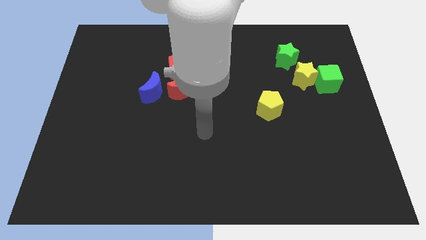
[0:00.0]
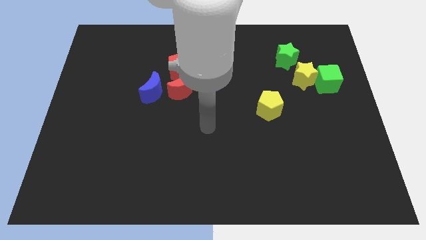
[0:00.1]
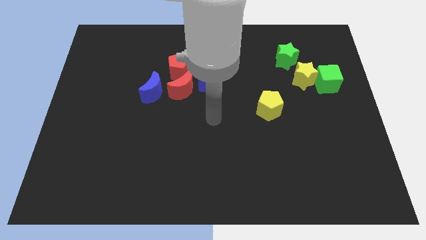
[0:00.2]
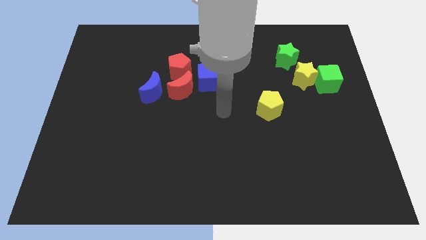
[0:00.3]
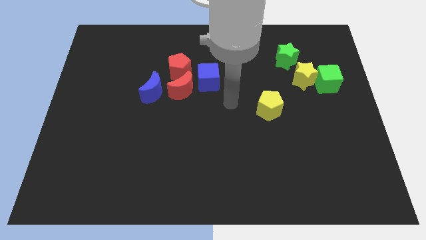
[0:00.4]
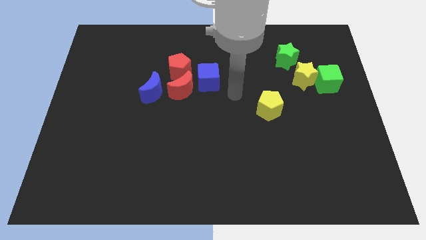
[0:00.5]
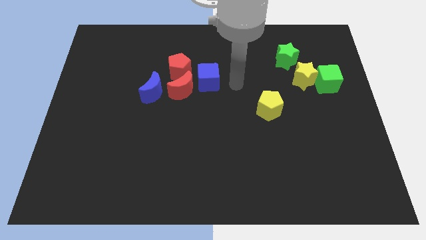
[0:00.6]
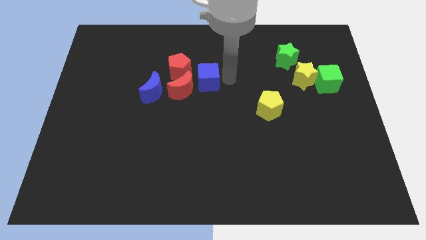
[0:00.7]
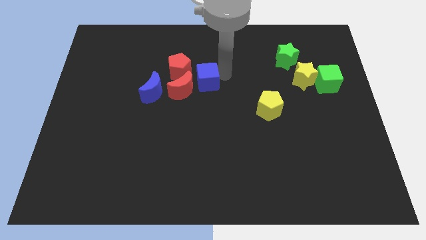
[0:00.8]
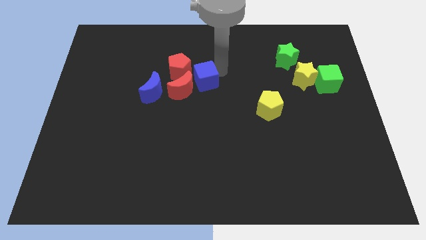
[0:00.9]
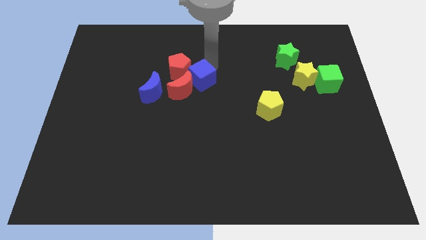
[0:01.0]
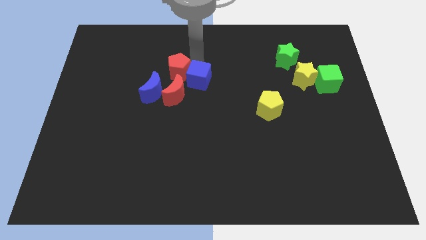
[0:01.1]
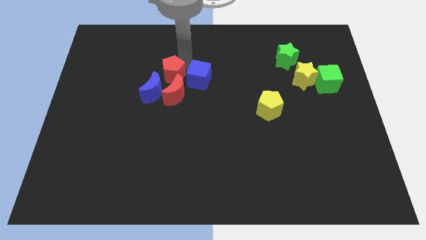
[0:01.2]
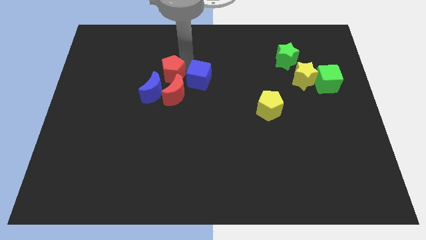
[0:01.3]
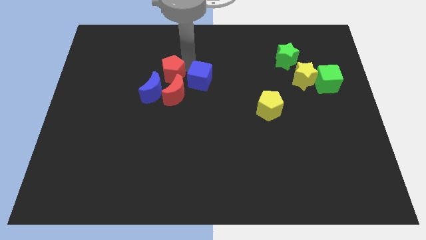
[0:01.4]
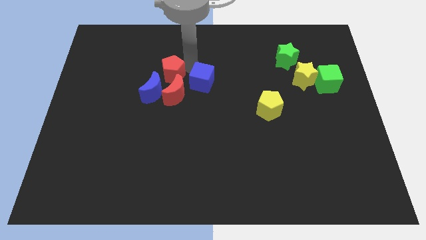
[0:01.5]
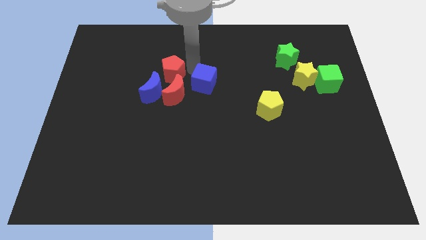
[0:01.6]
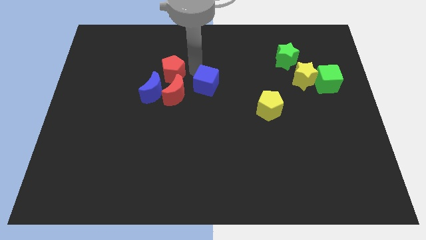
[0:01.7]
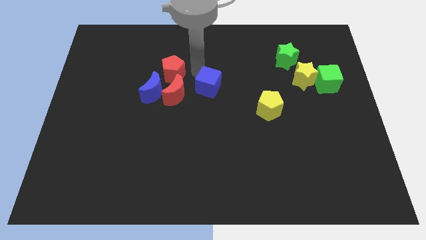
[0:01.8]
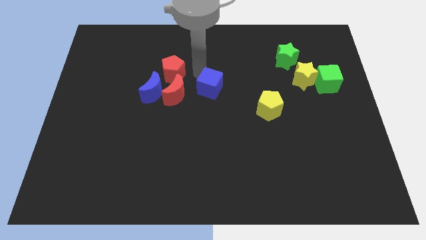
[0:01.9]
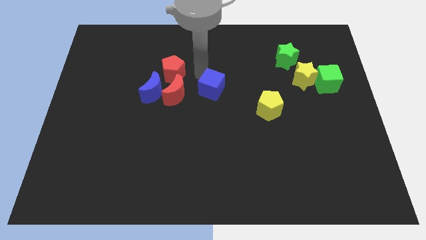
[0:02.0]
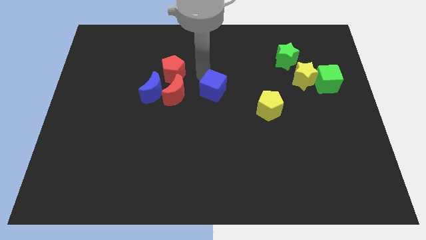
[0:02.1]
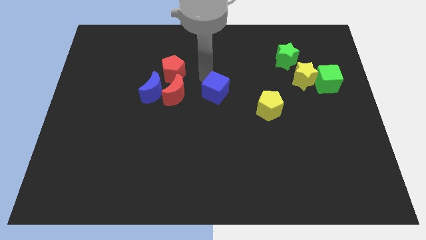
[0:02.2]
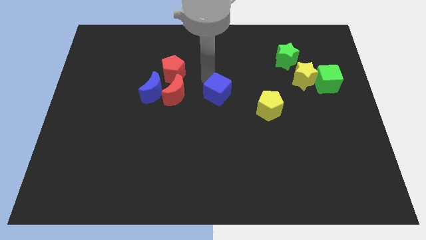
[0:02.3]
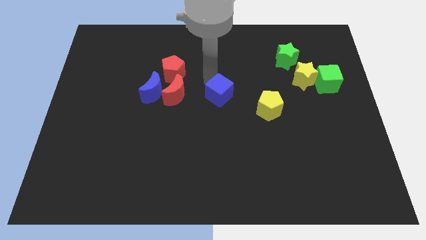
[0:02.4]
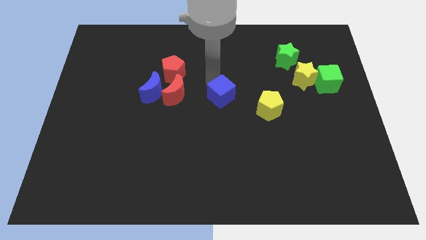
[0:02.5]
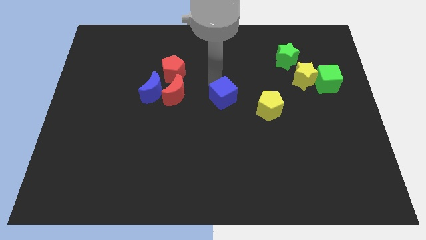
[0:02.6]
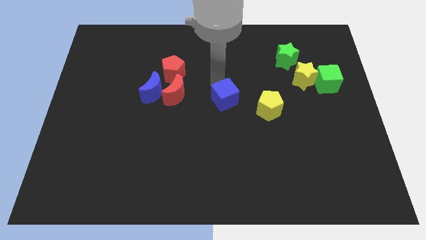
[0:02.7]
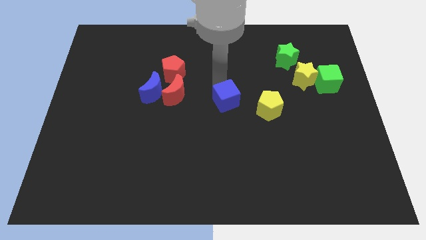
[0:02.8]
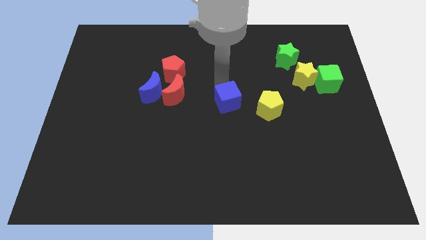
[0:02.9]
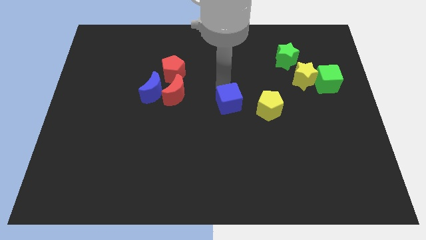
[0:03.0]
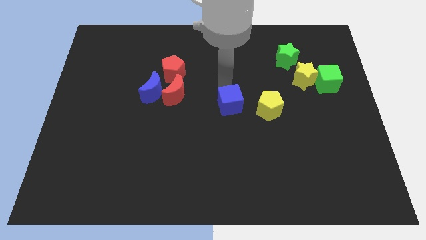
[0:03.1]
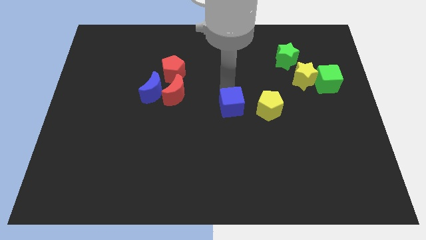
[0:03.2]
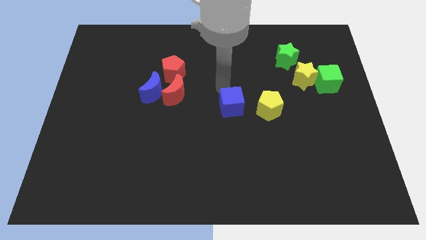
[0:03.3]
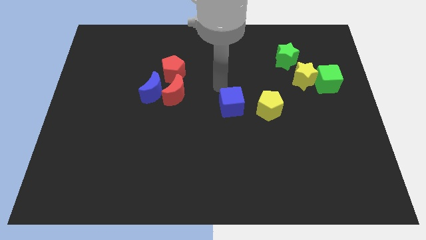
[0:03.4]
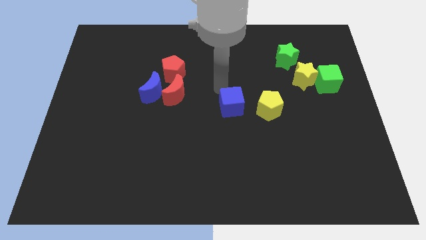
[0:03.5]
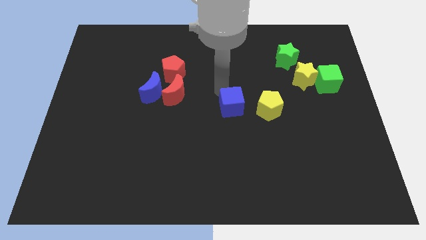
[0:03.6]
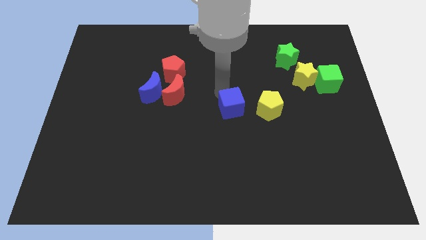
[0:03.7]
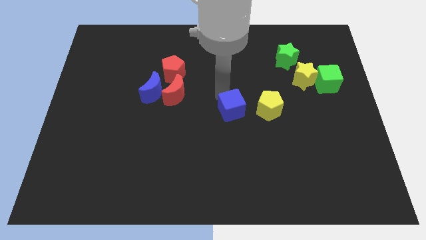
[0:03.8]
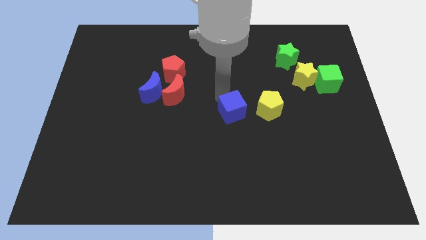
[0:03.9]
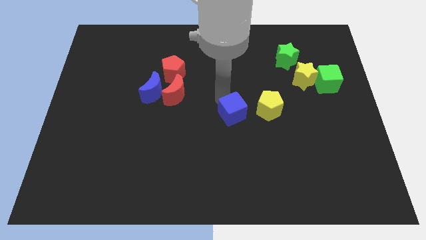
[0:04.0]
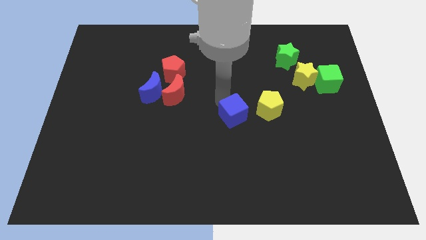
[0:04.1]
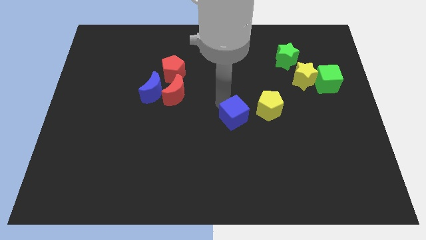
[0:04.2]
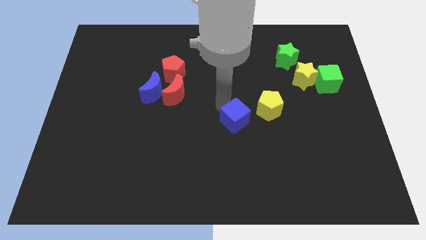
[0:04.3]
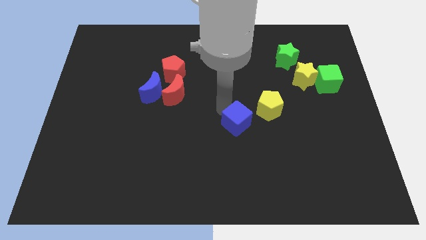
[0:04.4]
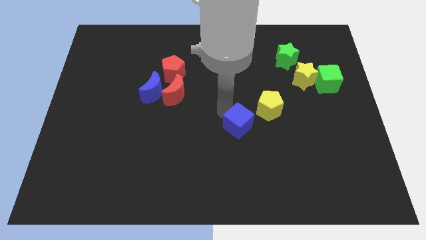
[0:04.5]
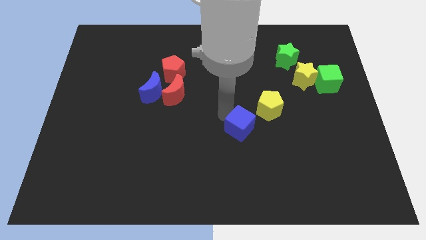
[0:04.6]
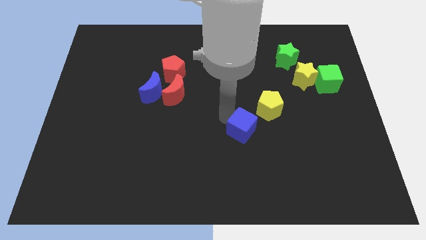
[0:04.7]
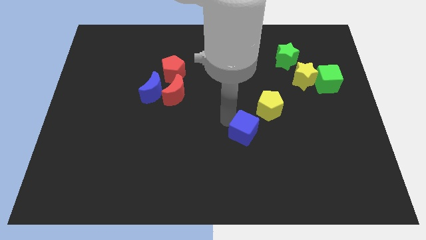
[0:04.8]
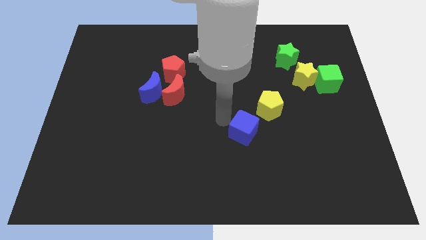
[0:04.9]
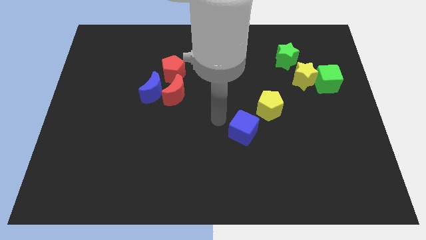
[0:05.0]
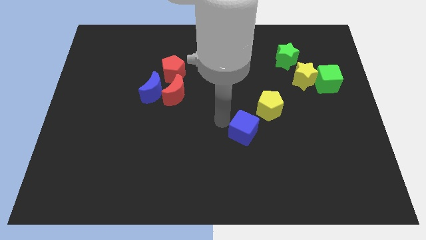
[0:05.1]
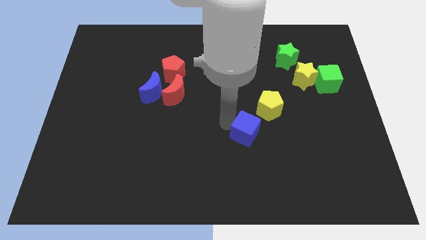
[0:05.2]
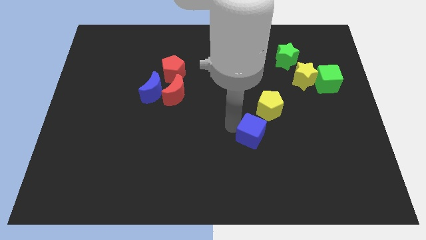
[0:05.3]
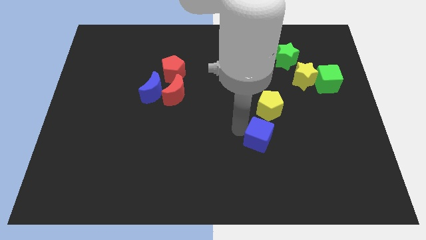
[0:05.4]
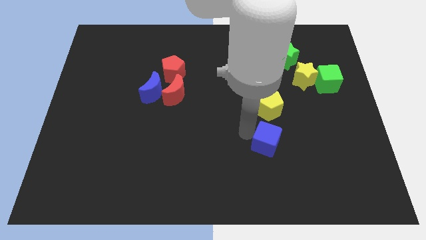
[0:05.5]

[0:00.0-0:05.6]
push the blue cube downwards and then to the right

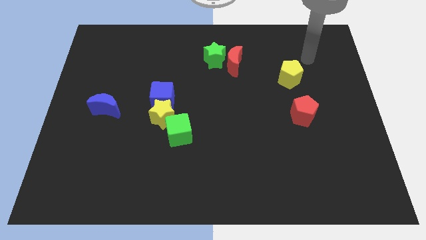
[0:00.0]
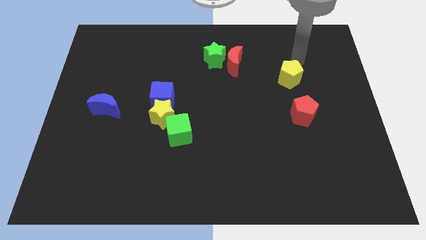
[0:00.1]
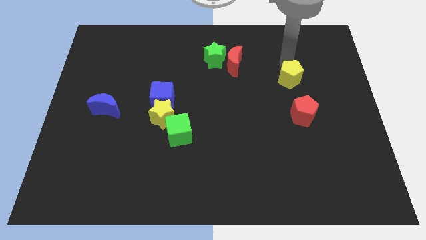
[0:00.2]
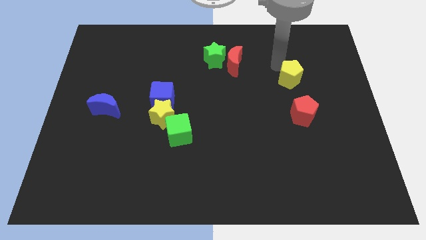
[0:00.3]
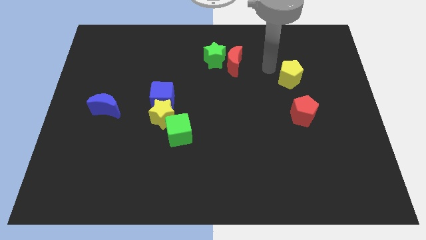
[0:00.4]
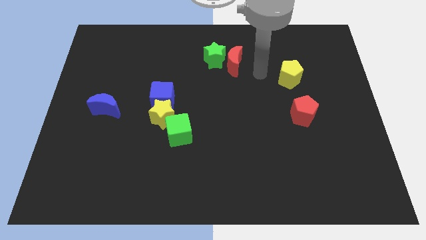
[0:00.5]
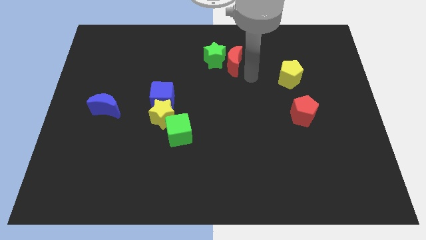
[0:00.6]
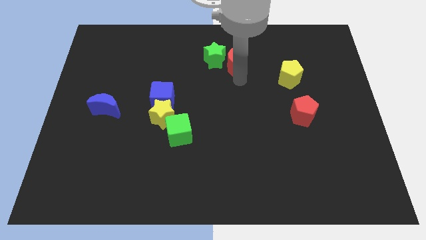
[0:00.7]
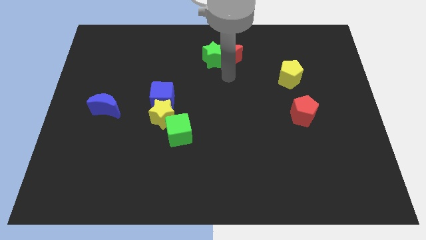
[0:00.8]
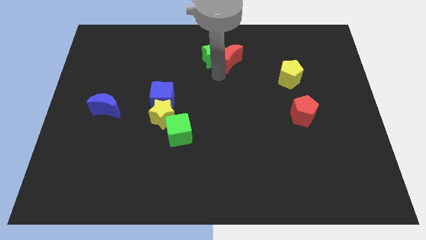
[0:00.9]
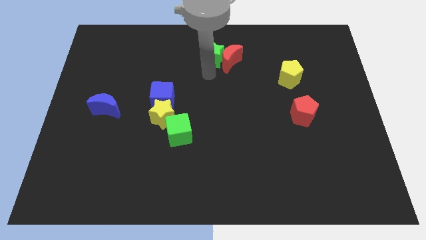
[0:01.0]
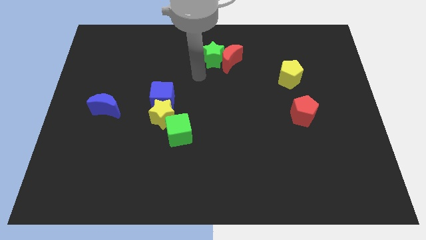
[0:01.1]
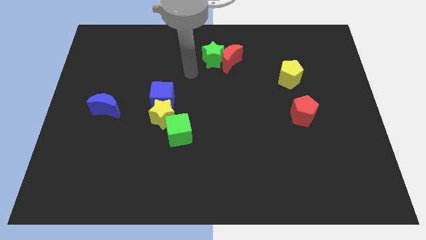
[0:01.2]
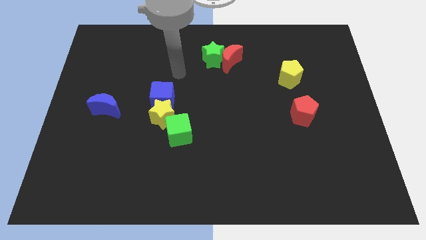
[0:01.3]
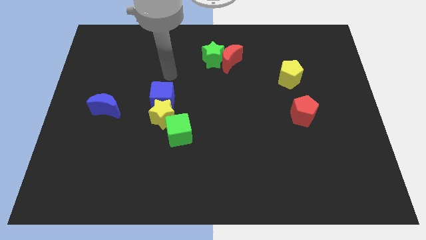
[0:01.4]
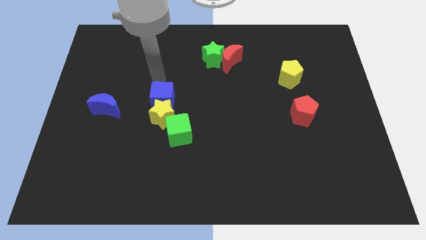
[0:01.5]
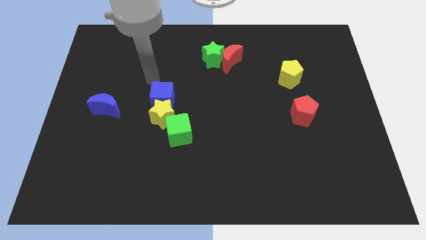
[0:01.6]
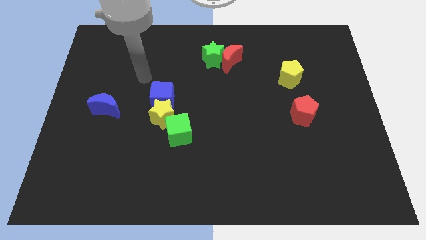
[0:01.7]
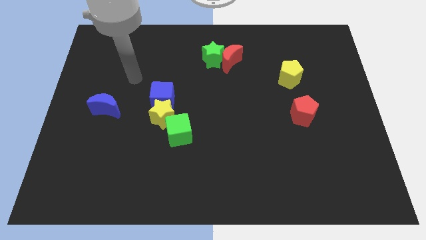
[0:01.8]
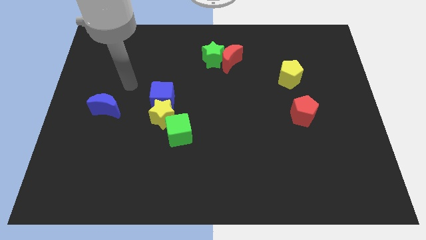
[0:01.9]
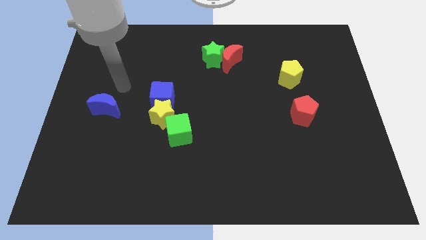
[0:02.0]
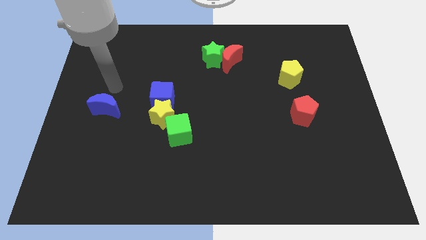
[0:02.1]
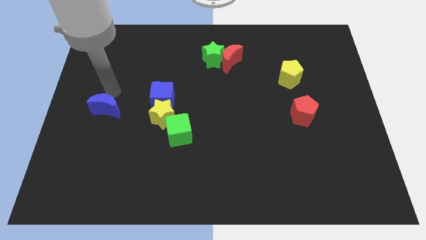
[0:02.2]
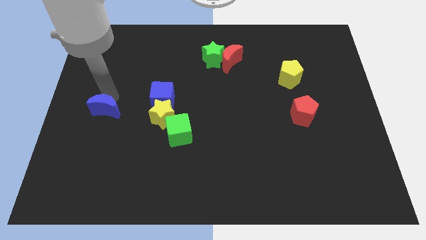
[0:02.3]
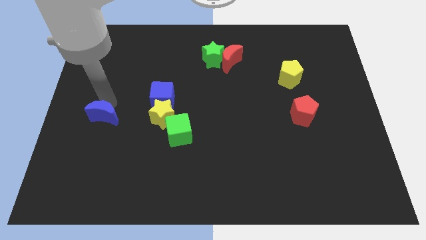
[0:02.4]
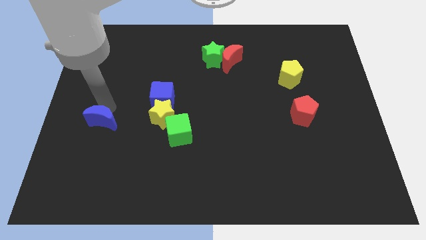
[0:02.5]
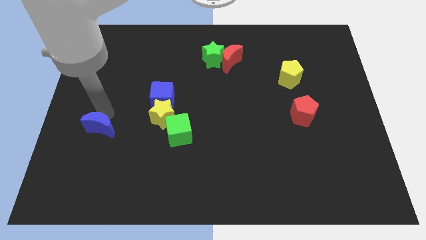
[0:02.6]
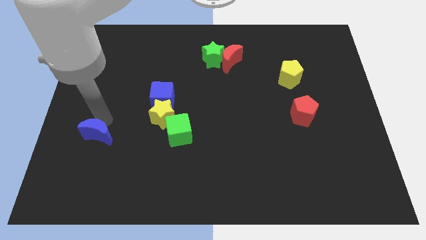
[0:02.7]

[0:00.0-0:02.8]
move the blue moon slightly downwards
